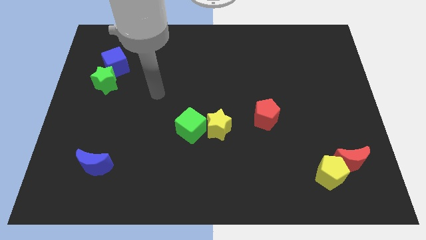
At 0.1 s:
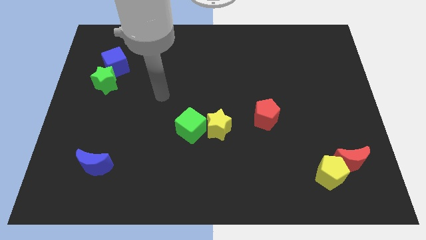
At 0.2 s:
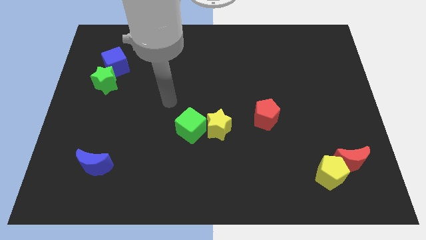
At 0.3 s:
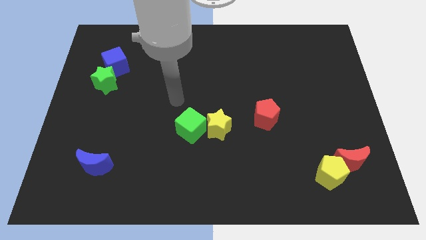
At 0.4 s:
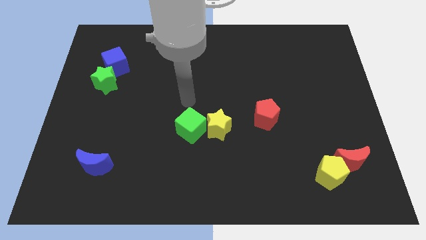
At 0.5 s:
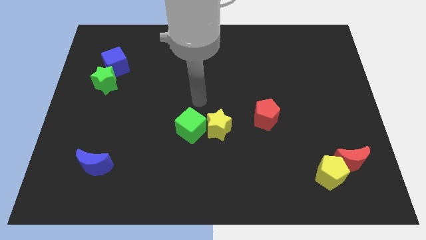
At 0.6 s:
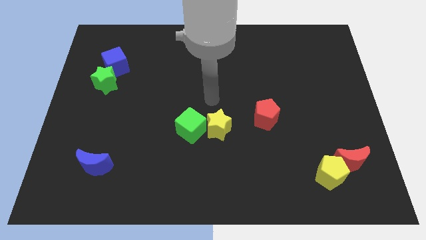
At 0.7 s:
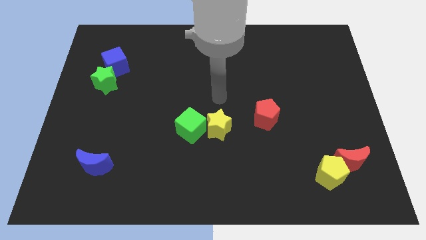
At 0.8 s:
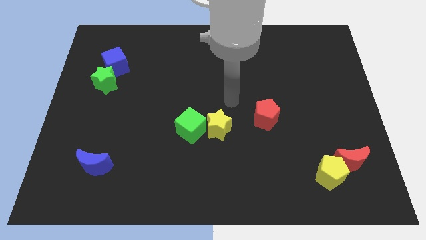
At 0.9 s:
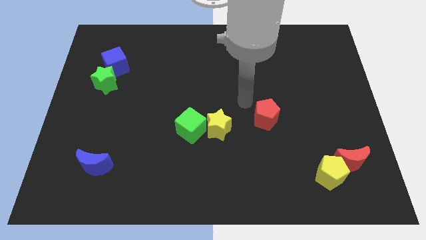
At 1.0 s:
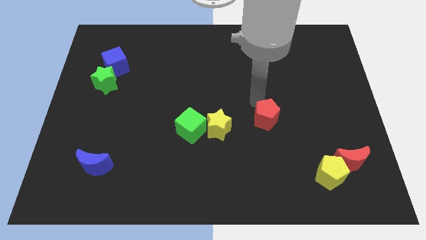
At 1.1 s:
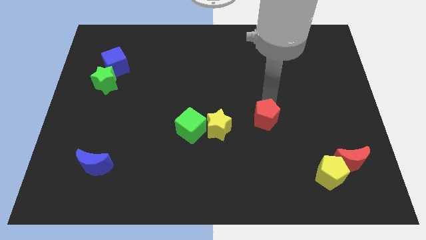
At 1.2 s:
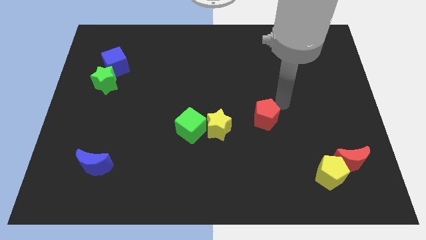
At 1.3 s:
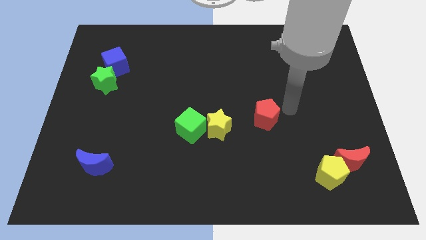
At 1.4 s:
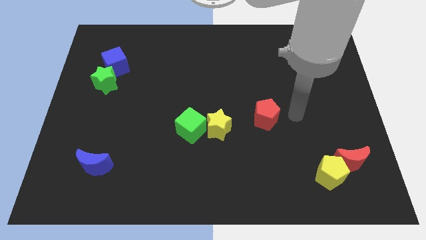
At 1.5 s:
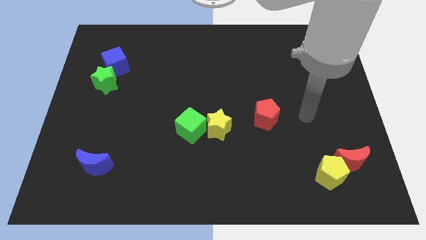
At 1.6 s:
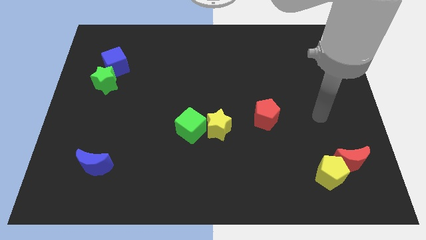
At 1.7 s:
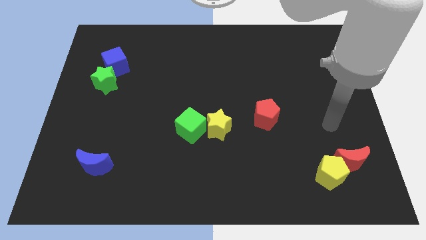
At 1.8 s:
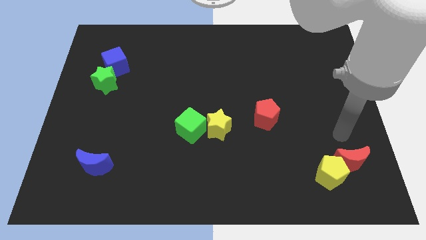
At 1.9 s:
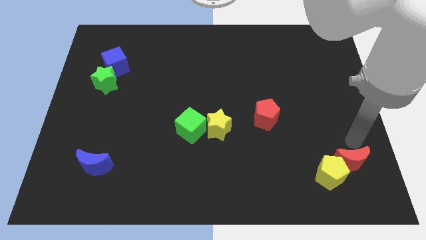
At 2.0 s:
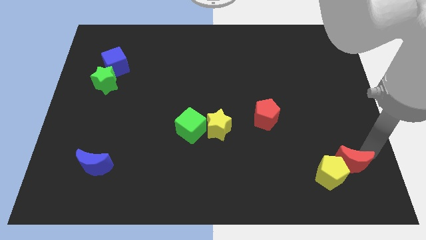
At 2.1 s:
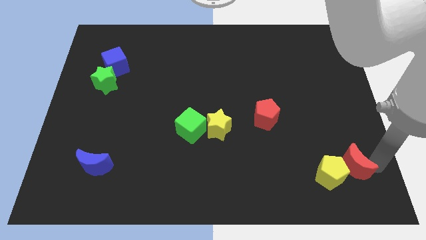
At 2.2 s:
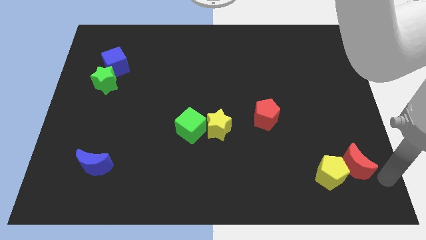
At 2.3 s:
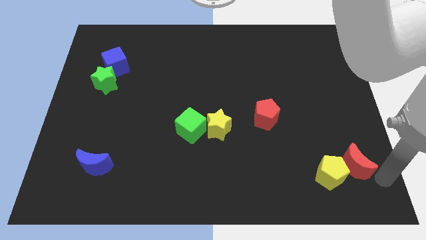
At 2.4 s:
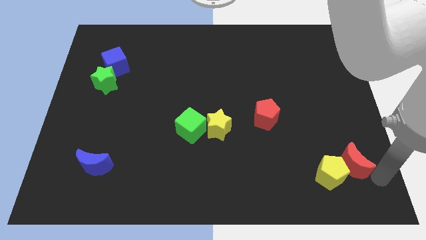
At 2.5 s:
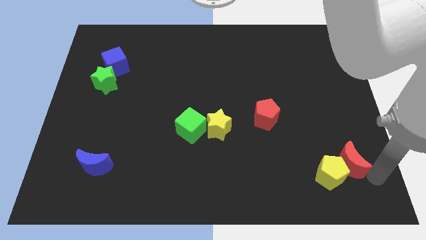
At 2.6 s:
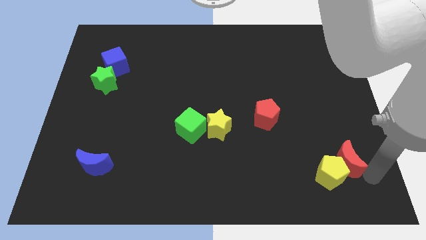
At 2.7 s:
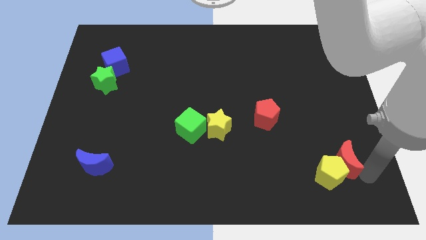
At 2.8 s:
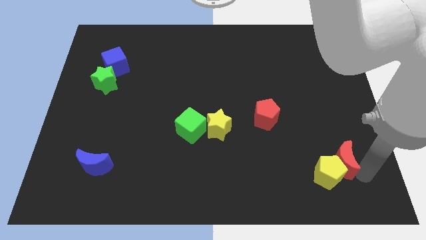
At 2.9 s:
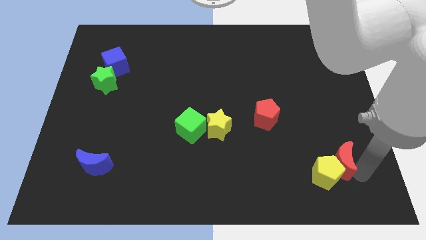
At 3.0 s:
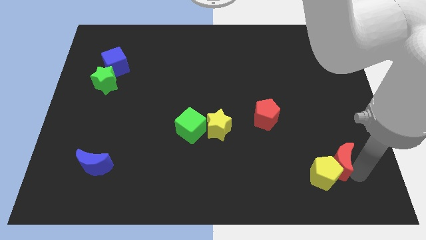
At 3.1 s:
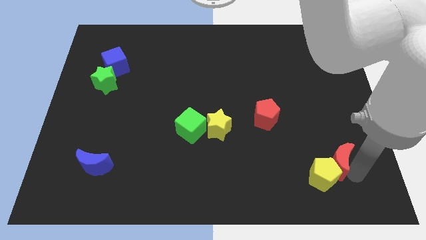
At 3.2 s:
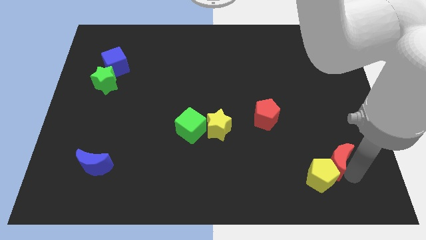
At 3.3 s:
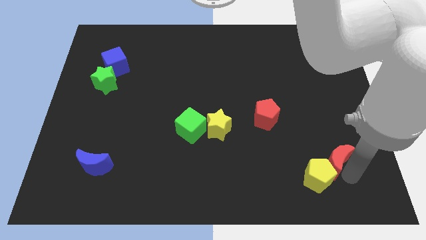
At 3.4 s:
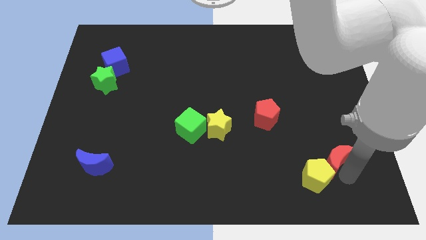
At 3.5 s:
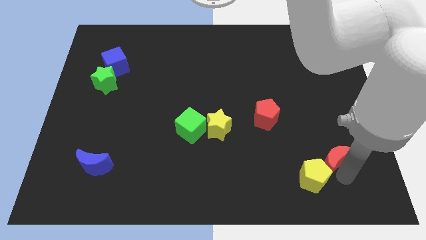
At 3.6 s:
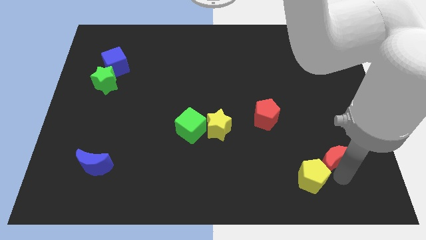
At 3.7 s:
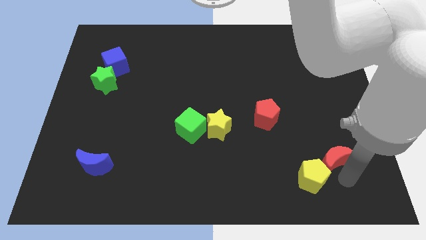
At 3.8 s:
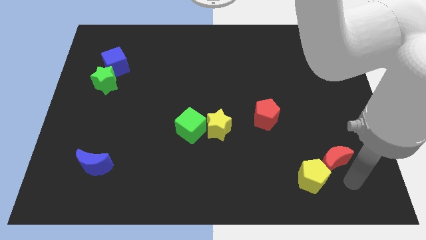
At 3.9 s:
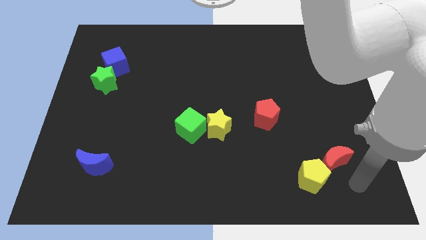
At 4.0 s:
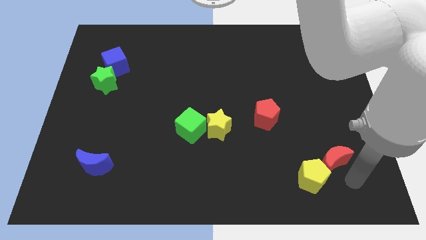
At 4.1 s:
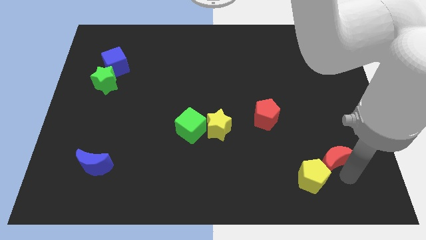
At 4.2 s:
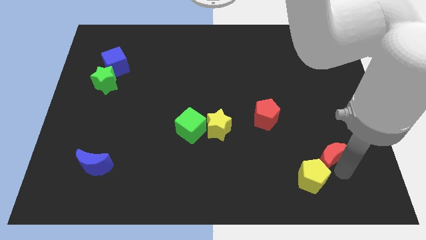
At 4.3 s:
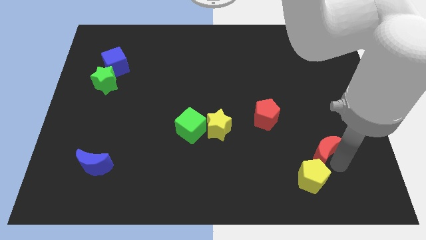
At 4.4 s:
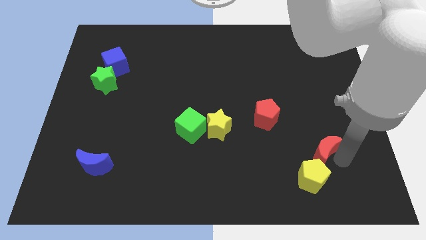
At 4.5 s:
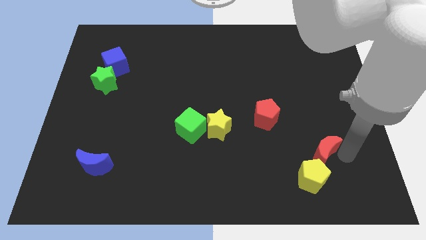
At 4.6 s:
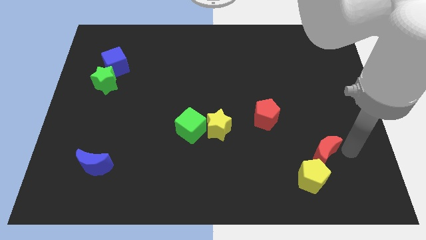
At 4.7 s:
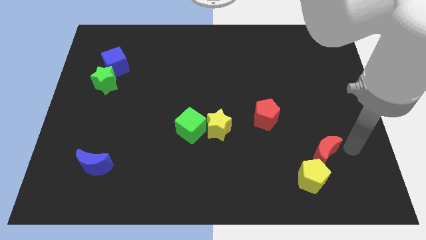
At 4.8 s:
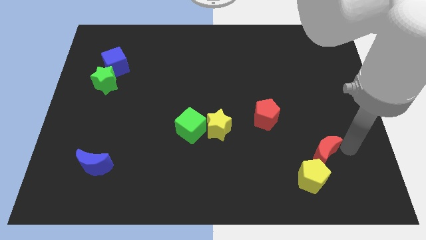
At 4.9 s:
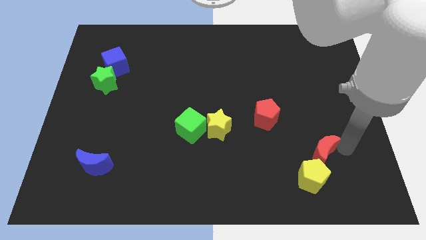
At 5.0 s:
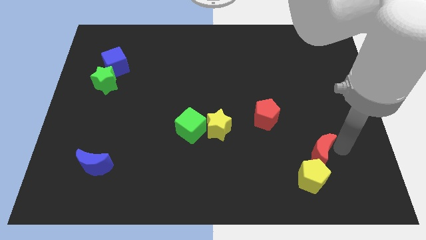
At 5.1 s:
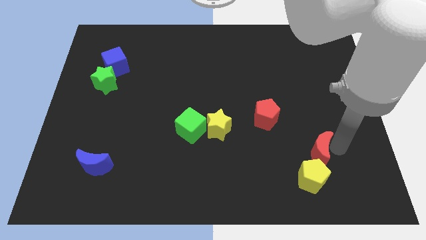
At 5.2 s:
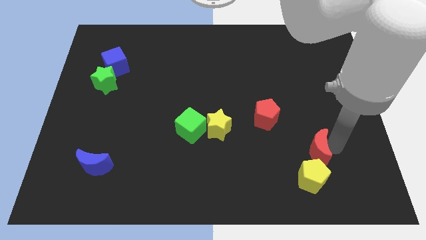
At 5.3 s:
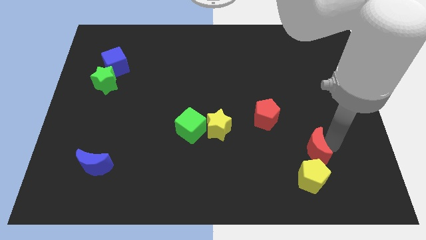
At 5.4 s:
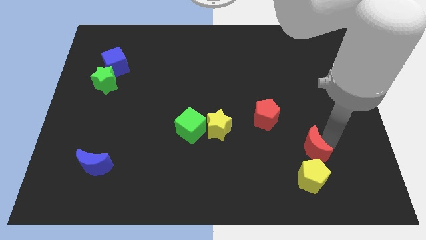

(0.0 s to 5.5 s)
slightly push the red moon to the left

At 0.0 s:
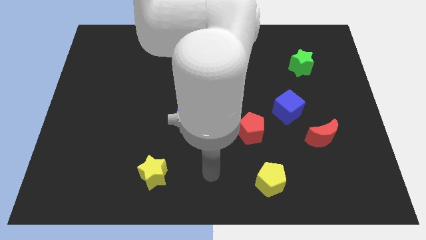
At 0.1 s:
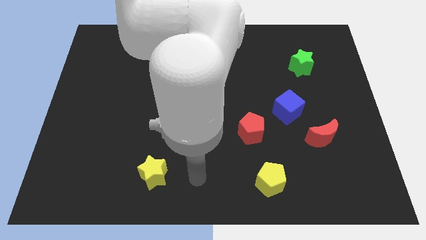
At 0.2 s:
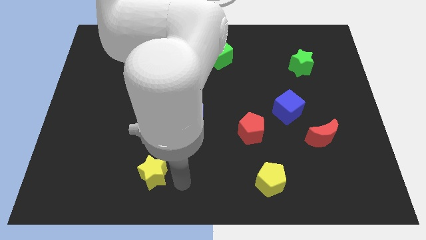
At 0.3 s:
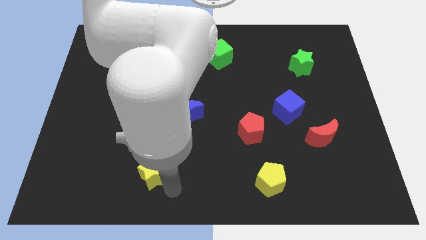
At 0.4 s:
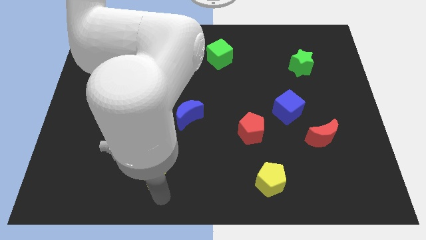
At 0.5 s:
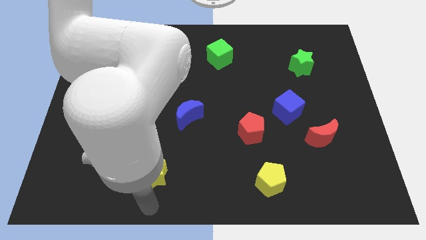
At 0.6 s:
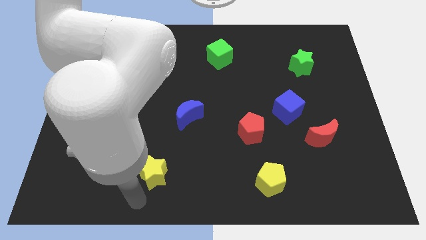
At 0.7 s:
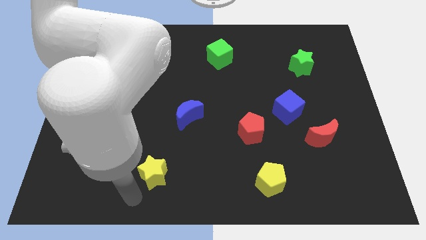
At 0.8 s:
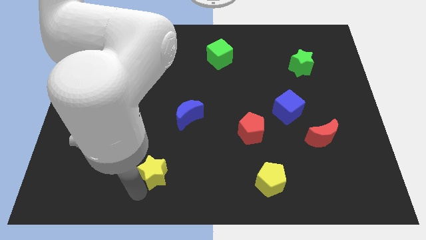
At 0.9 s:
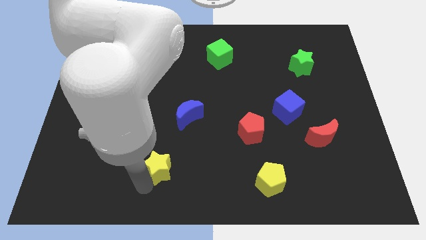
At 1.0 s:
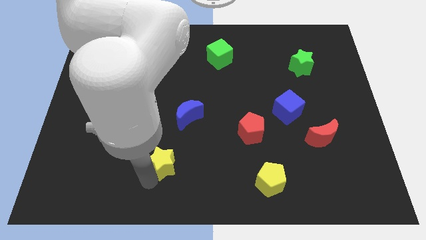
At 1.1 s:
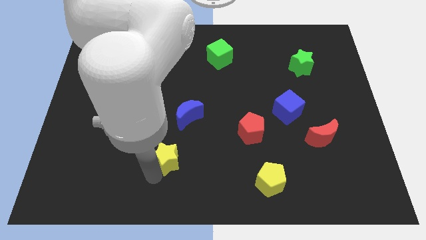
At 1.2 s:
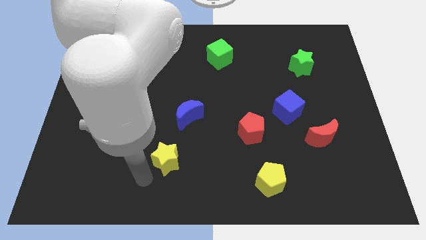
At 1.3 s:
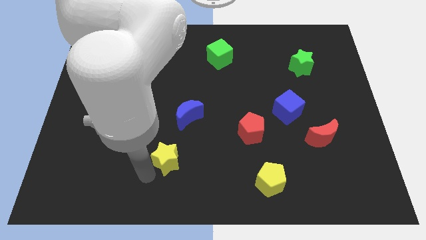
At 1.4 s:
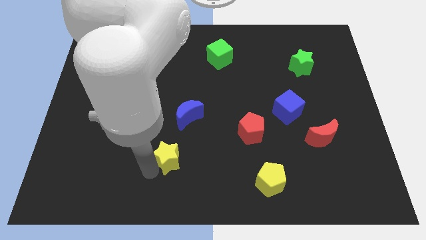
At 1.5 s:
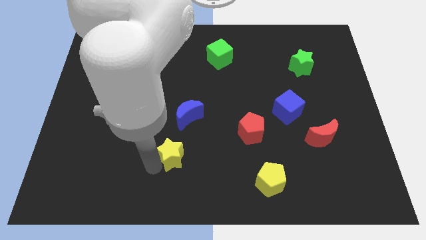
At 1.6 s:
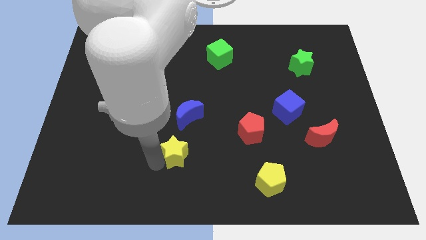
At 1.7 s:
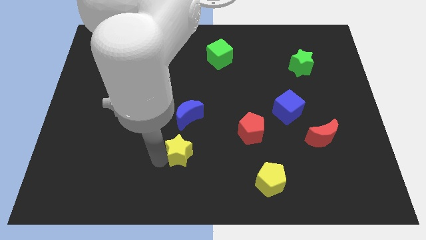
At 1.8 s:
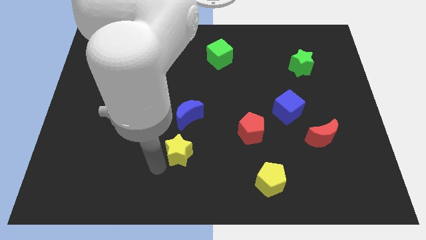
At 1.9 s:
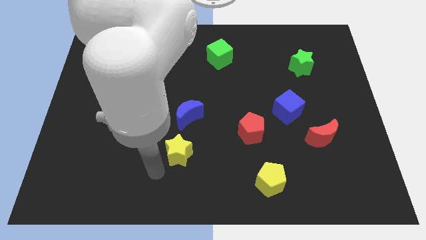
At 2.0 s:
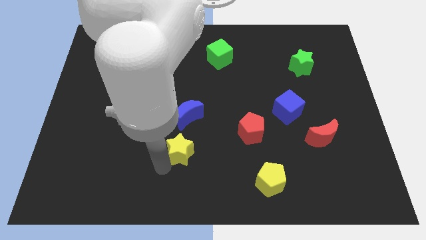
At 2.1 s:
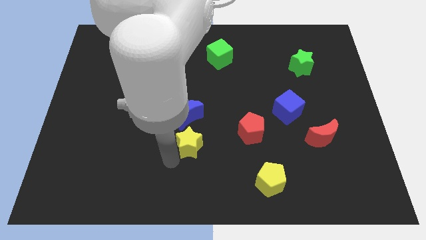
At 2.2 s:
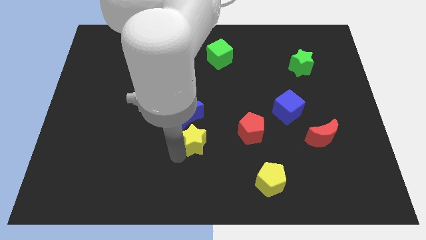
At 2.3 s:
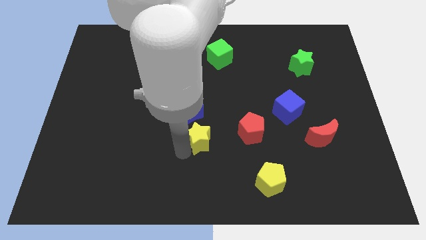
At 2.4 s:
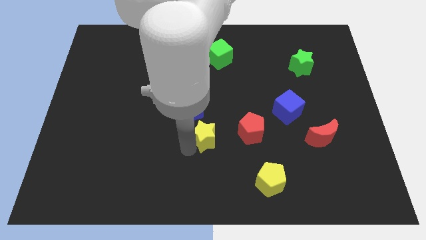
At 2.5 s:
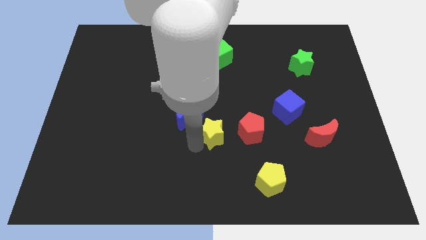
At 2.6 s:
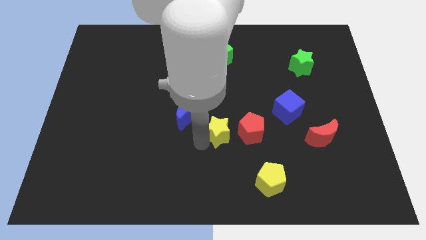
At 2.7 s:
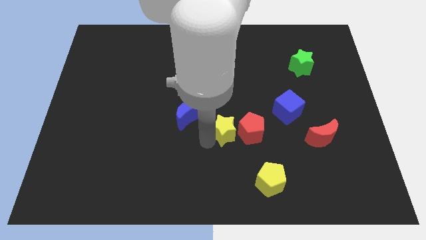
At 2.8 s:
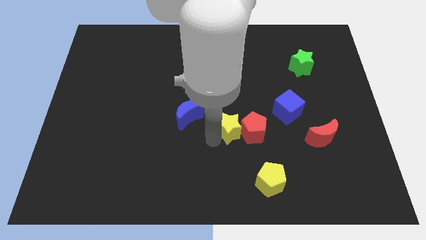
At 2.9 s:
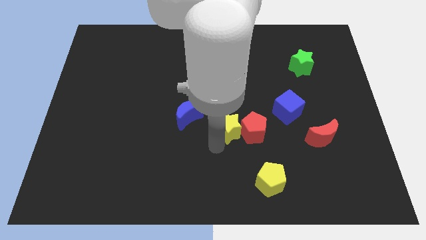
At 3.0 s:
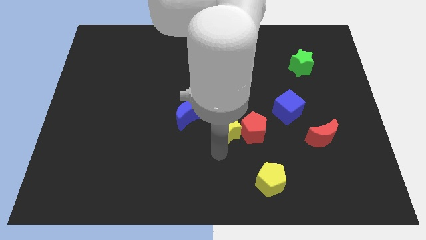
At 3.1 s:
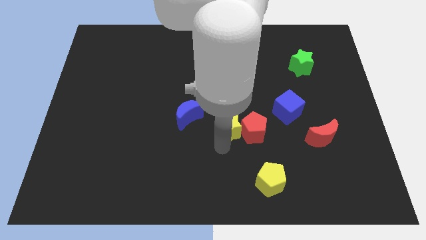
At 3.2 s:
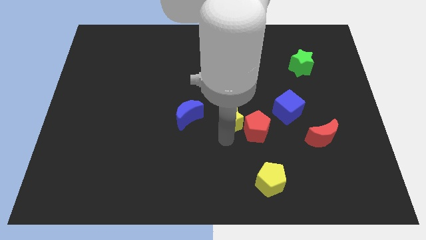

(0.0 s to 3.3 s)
move the yellow star diagonally up and to the right
